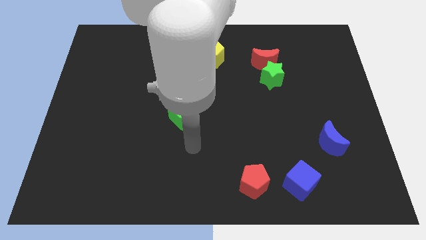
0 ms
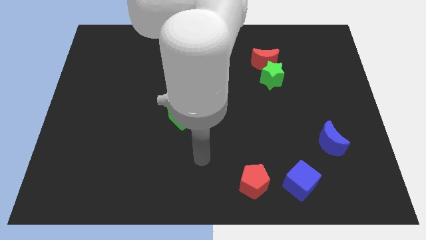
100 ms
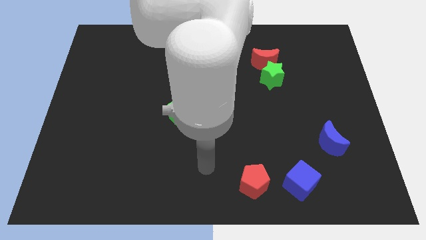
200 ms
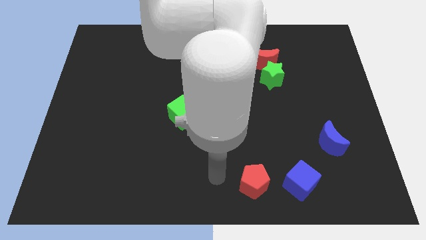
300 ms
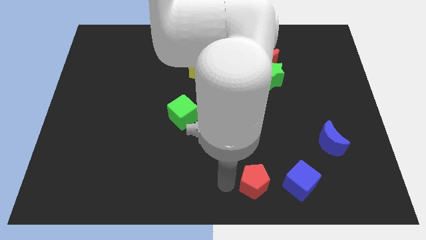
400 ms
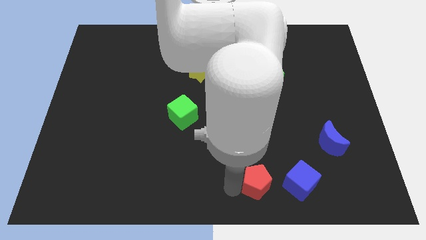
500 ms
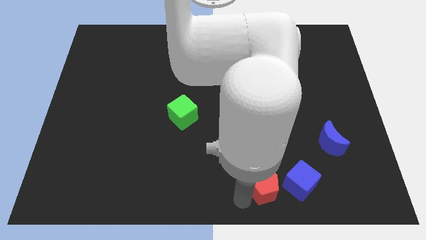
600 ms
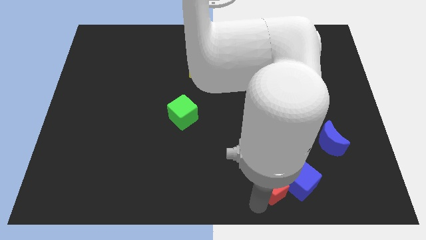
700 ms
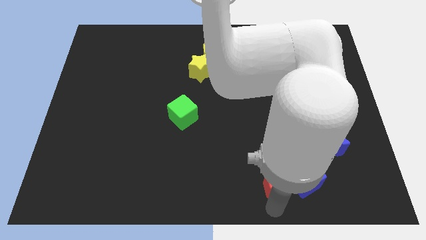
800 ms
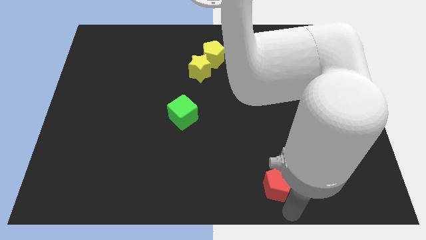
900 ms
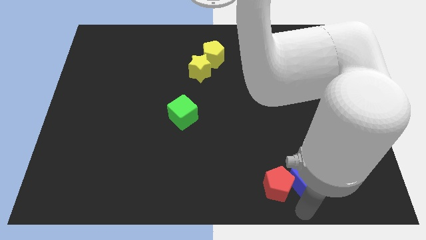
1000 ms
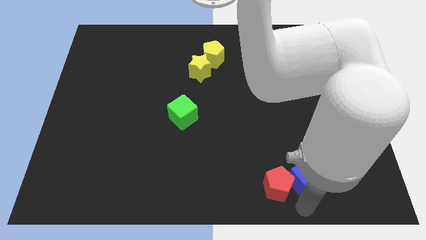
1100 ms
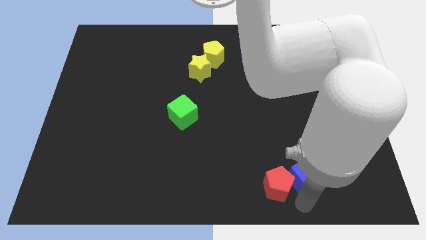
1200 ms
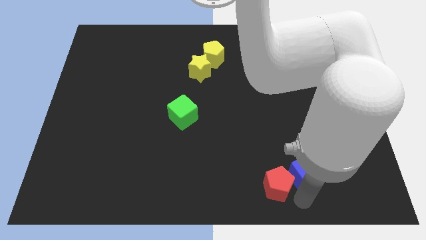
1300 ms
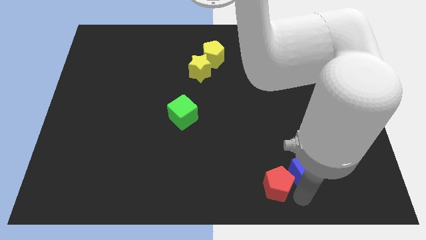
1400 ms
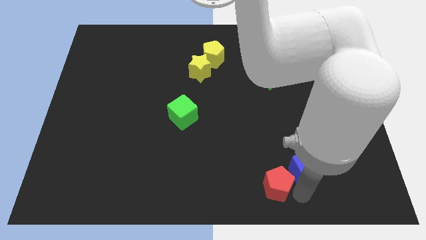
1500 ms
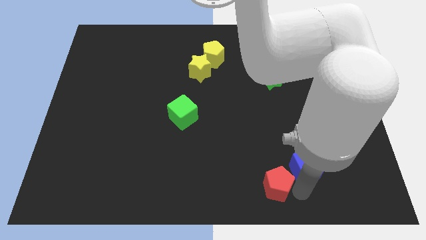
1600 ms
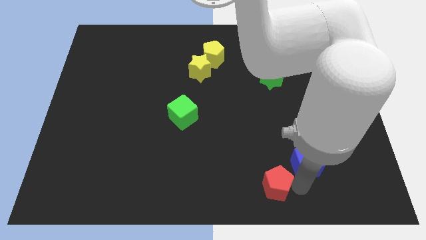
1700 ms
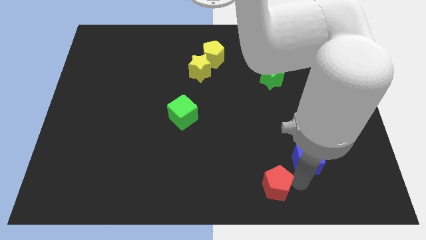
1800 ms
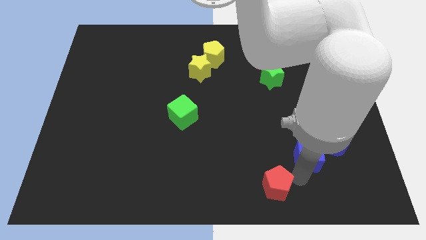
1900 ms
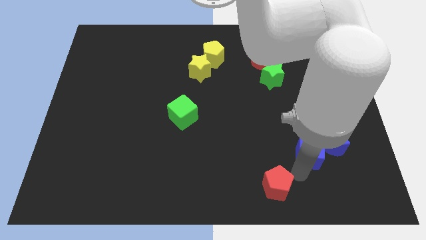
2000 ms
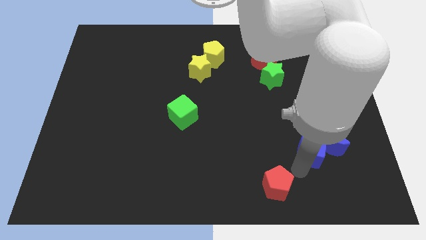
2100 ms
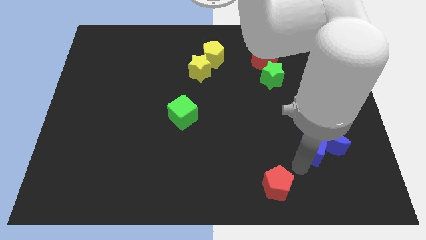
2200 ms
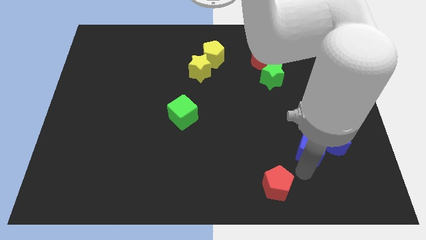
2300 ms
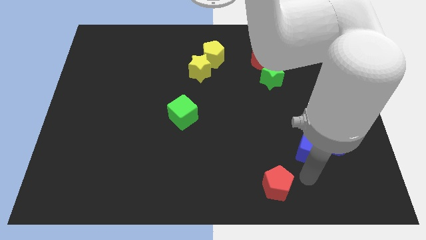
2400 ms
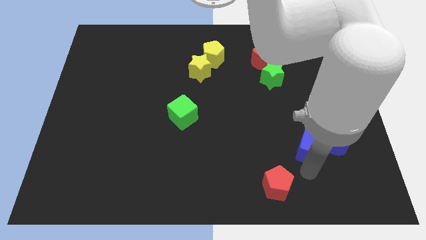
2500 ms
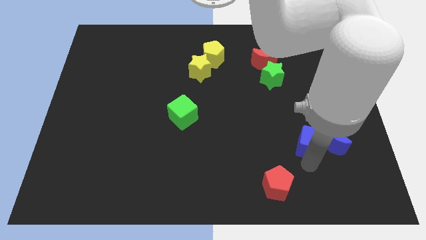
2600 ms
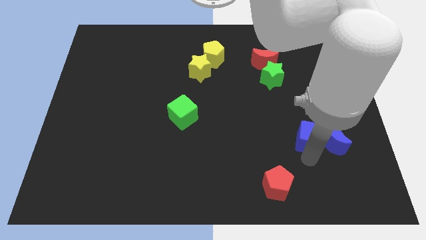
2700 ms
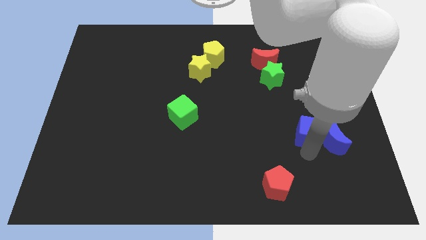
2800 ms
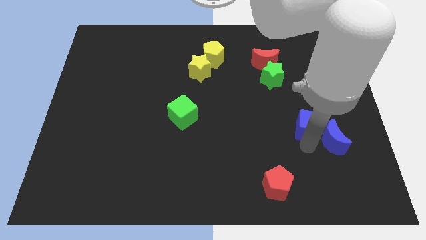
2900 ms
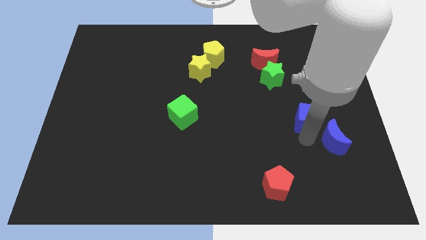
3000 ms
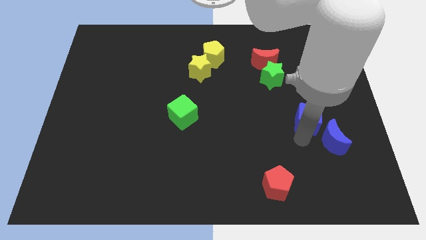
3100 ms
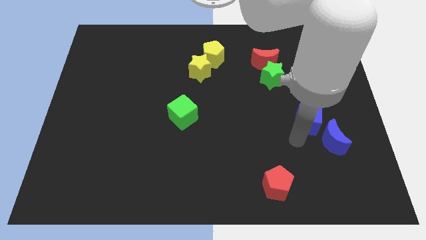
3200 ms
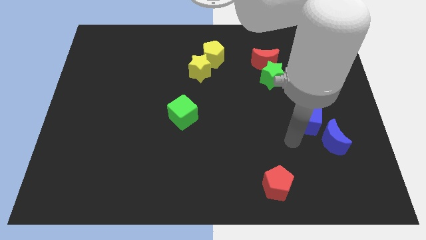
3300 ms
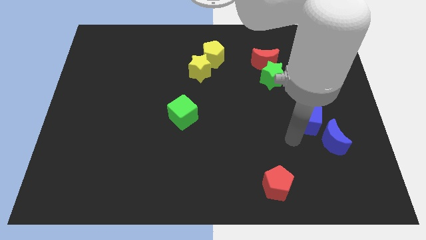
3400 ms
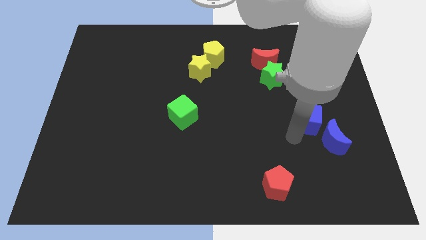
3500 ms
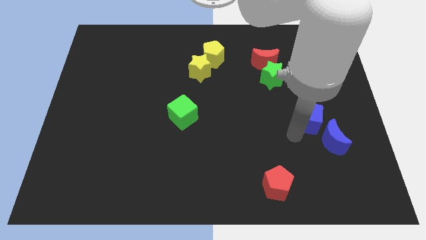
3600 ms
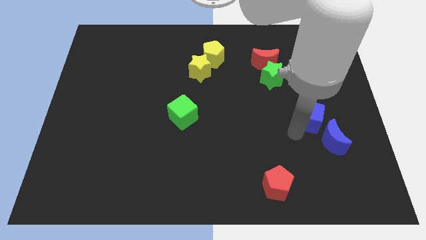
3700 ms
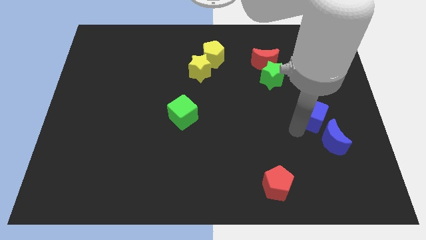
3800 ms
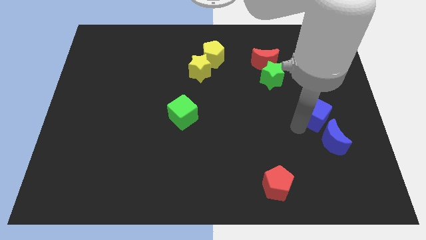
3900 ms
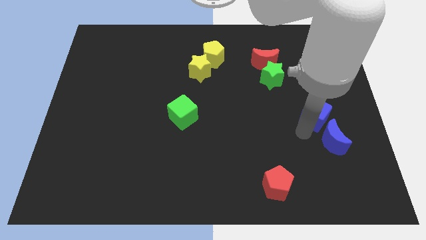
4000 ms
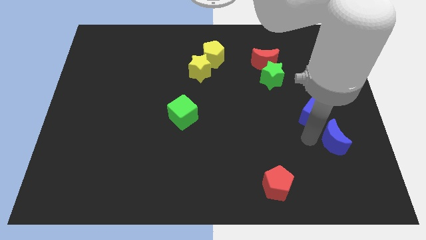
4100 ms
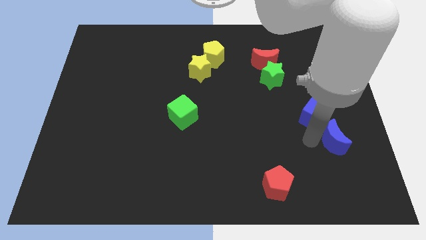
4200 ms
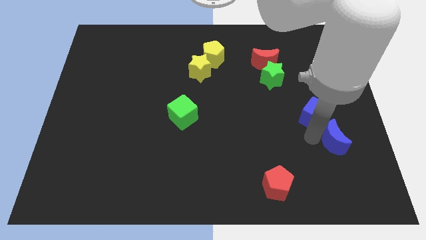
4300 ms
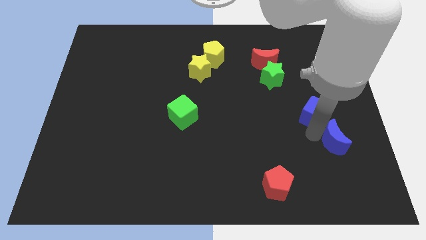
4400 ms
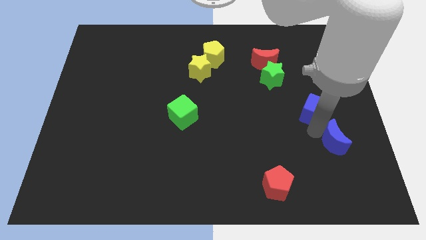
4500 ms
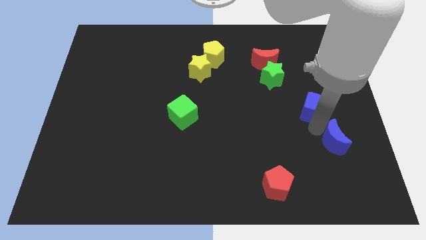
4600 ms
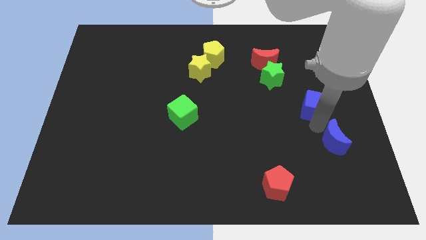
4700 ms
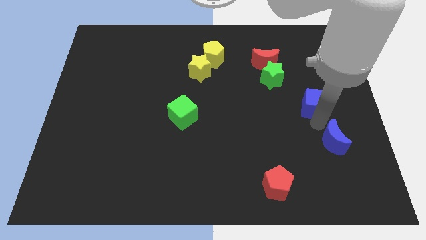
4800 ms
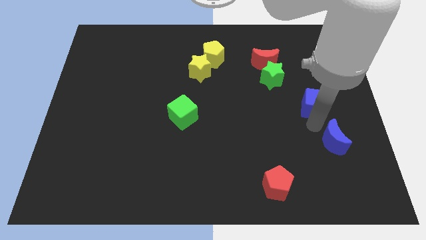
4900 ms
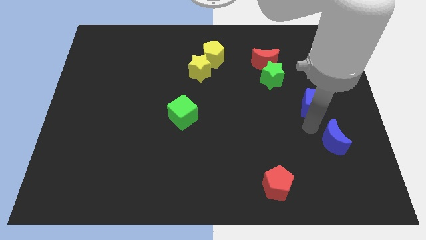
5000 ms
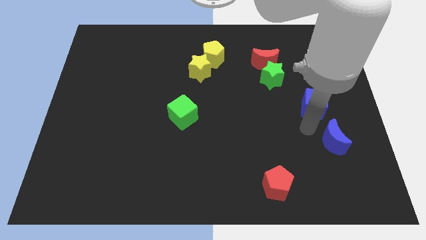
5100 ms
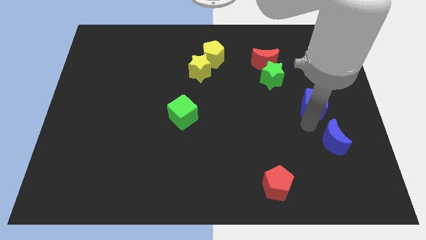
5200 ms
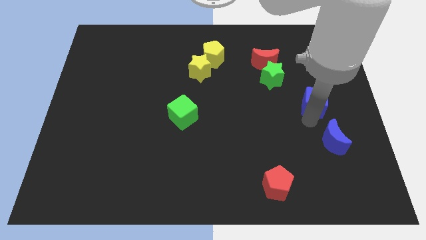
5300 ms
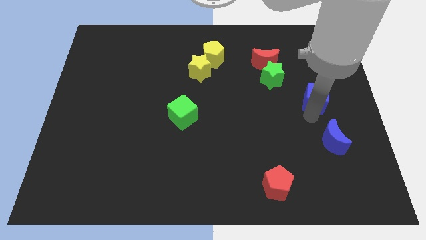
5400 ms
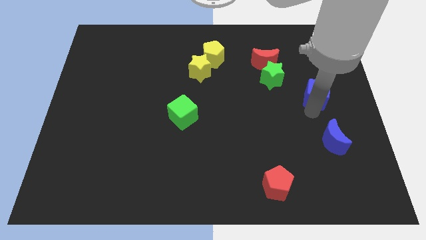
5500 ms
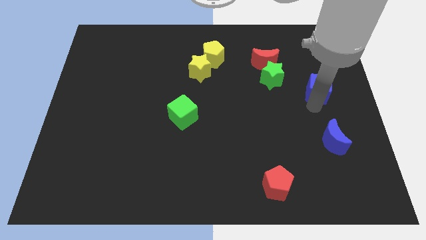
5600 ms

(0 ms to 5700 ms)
put the blue cube right of the green star

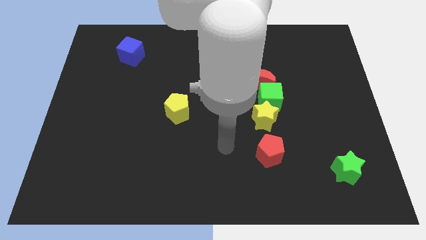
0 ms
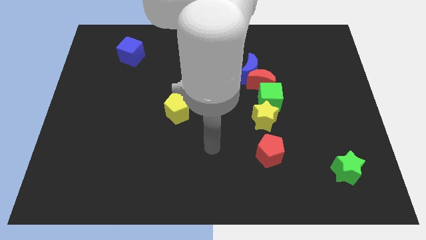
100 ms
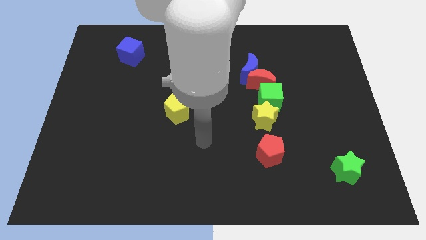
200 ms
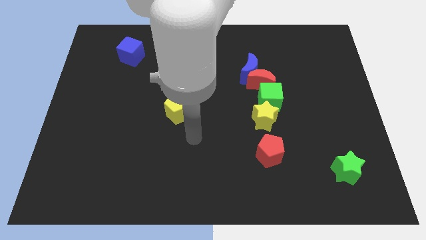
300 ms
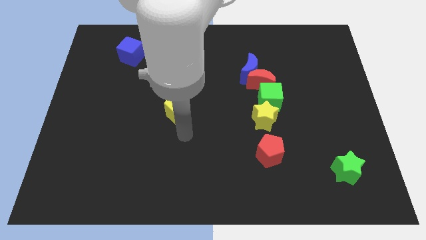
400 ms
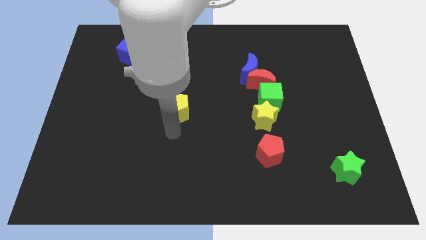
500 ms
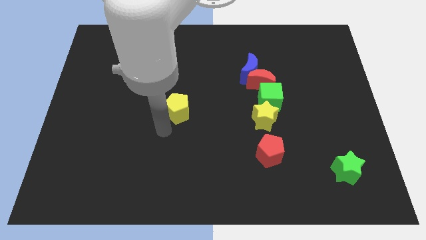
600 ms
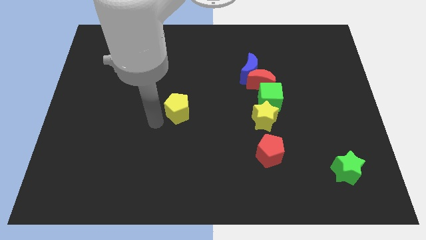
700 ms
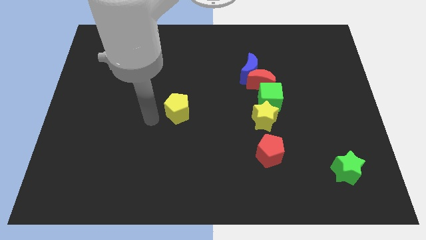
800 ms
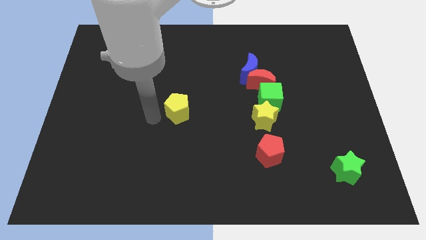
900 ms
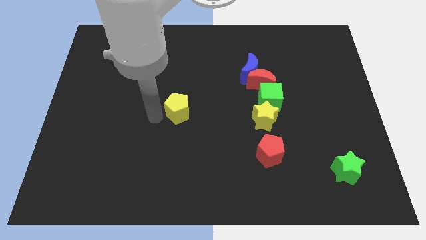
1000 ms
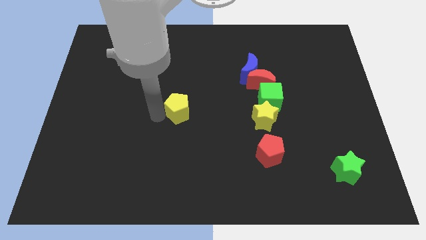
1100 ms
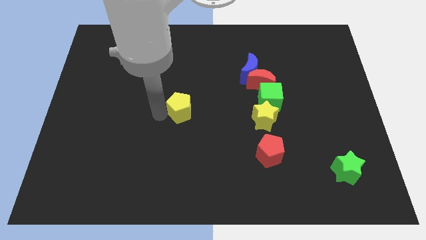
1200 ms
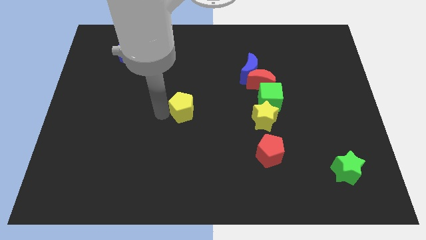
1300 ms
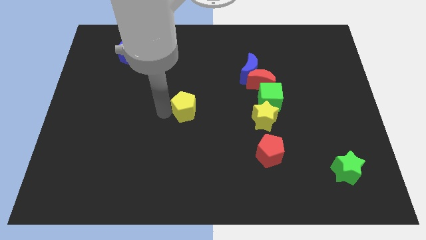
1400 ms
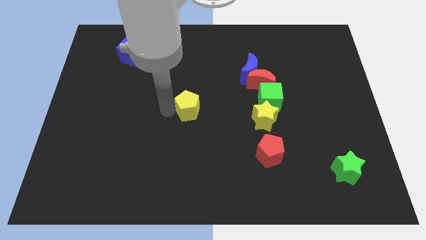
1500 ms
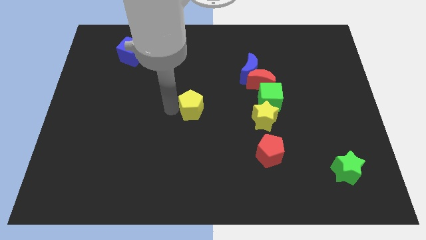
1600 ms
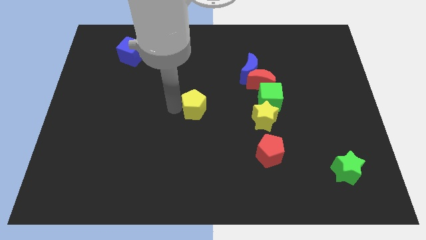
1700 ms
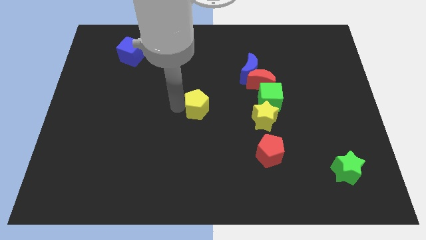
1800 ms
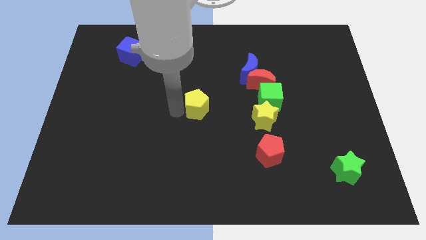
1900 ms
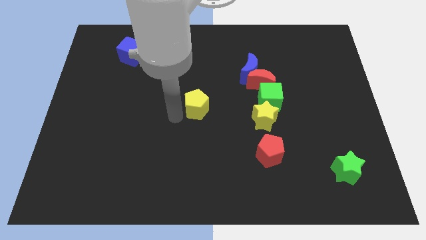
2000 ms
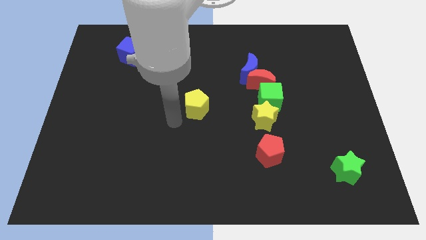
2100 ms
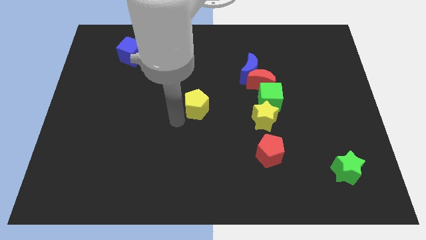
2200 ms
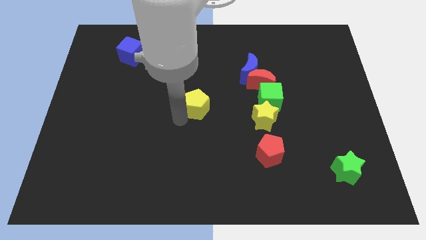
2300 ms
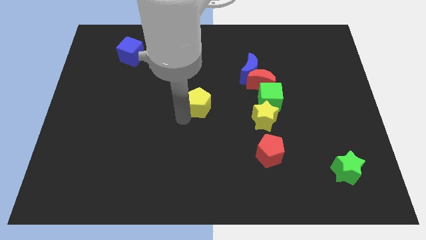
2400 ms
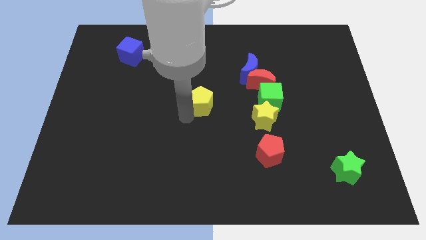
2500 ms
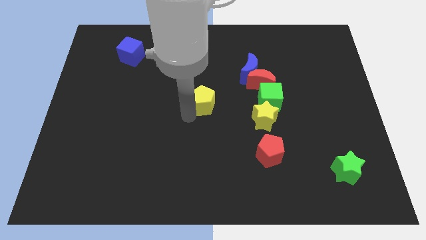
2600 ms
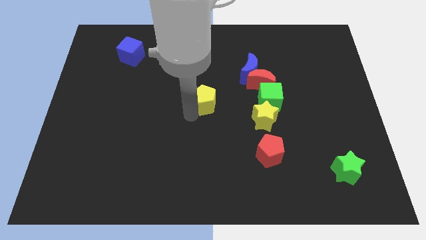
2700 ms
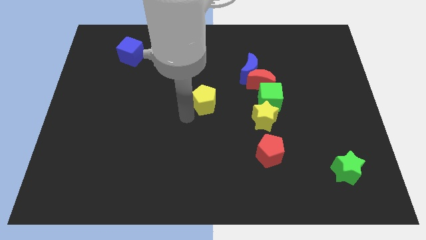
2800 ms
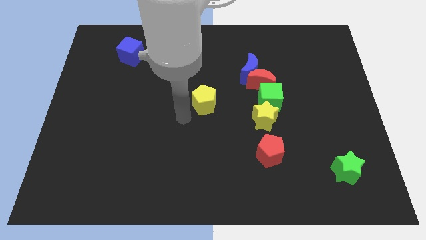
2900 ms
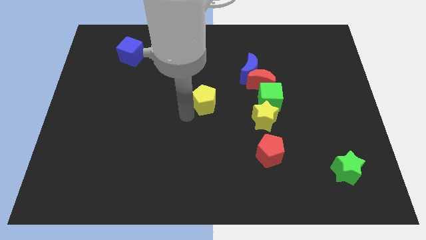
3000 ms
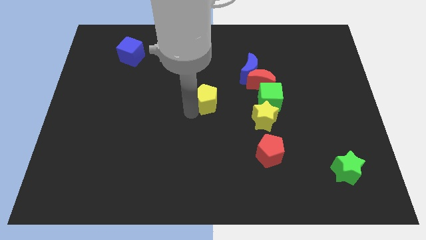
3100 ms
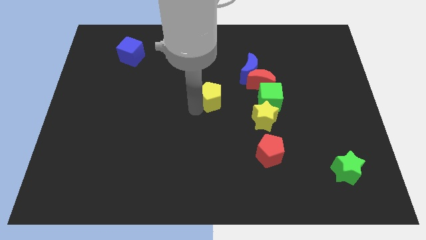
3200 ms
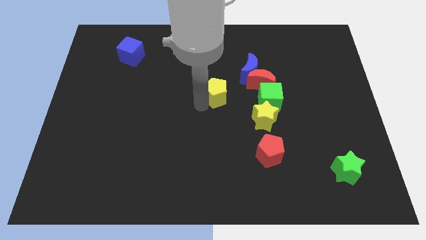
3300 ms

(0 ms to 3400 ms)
move the yellow pentagon to the bottom left side of the blue moon
